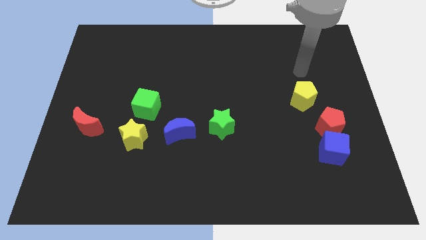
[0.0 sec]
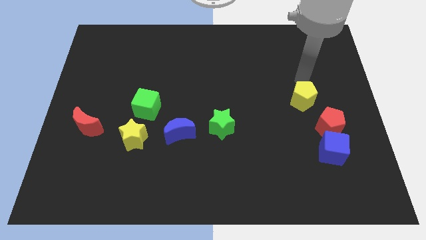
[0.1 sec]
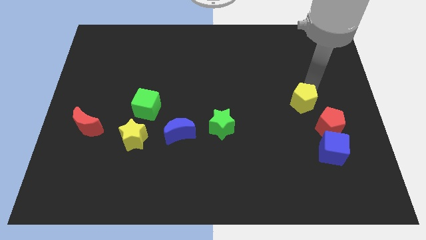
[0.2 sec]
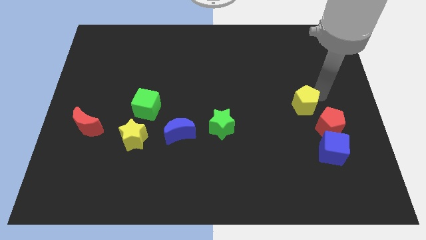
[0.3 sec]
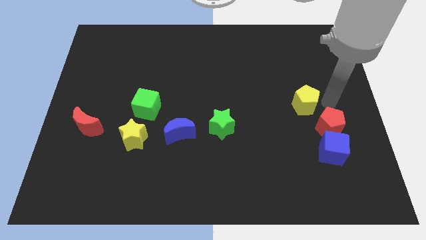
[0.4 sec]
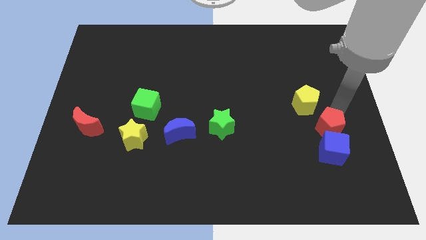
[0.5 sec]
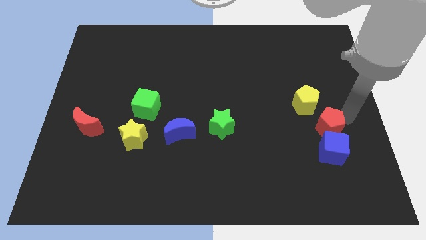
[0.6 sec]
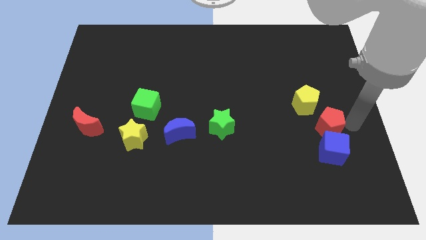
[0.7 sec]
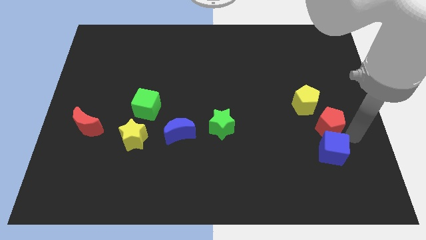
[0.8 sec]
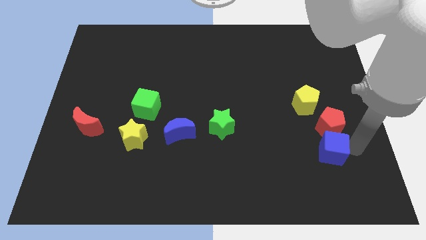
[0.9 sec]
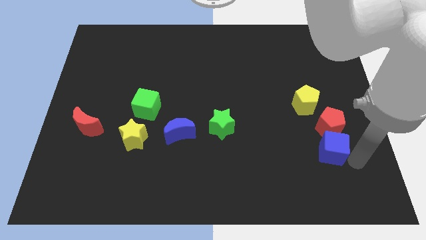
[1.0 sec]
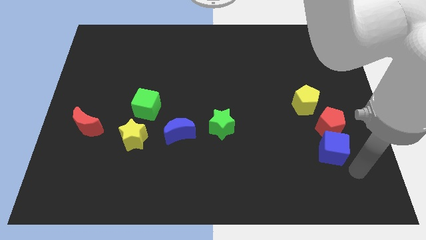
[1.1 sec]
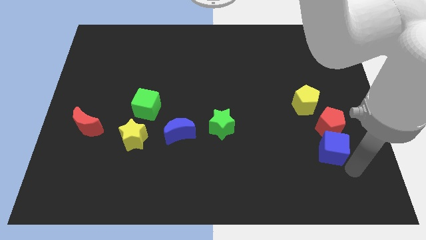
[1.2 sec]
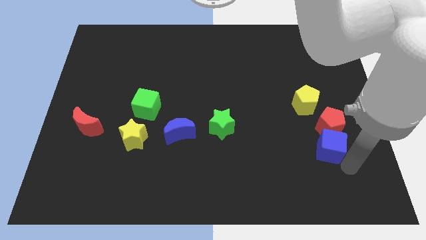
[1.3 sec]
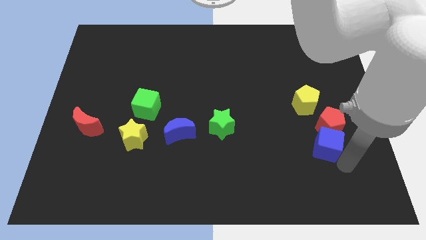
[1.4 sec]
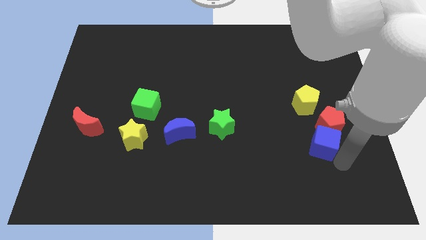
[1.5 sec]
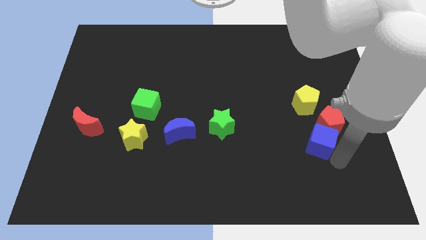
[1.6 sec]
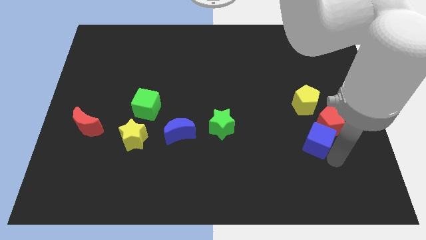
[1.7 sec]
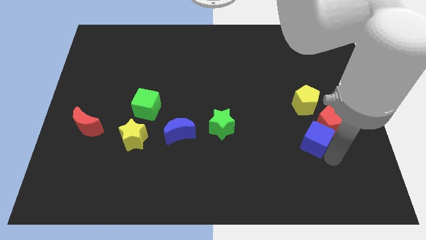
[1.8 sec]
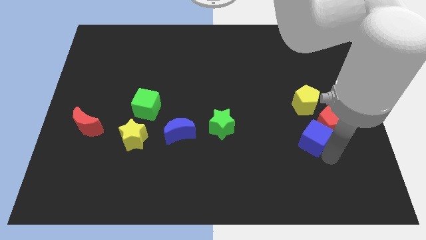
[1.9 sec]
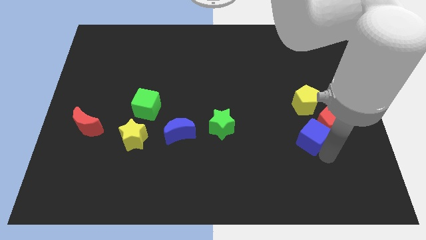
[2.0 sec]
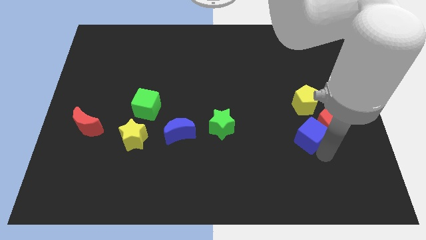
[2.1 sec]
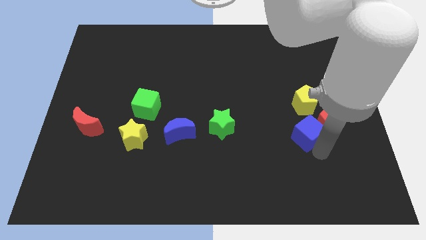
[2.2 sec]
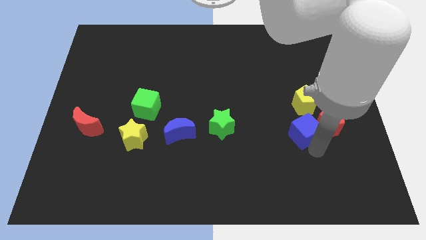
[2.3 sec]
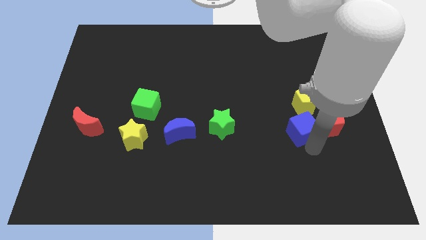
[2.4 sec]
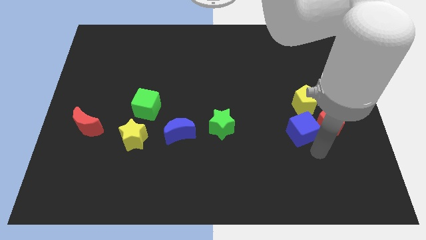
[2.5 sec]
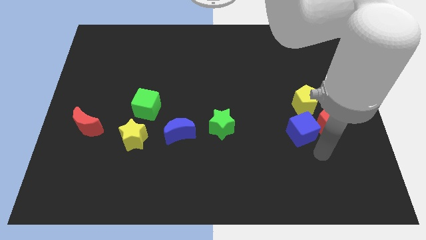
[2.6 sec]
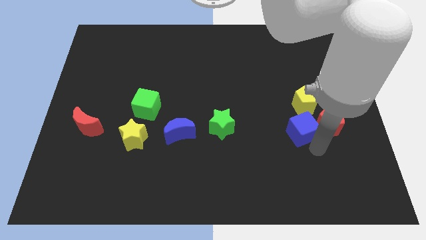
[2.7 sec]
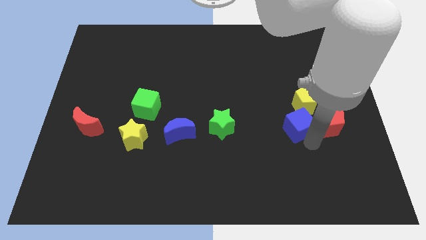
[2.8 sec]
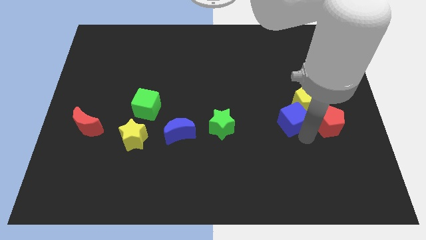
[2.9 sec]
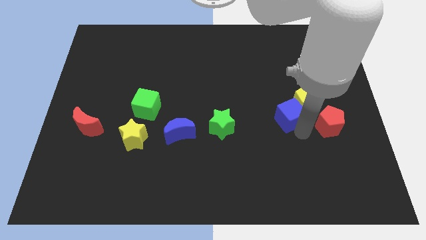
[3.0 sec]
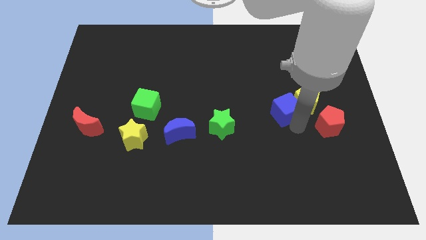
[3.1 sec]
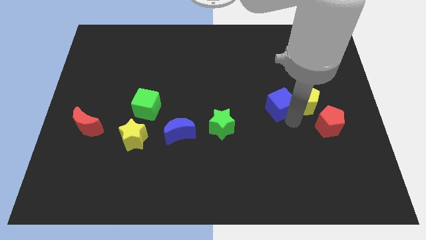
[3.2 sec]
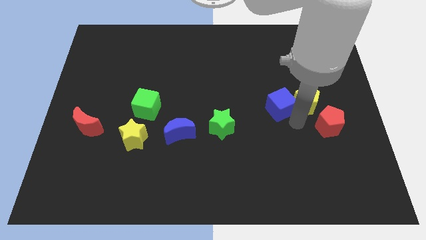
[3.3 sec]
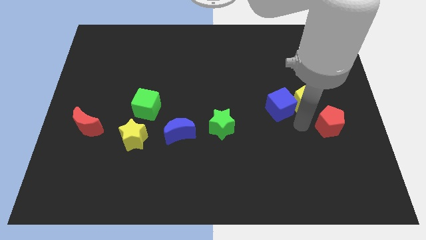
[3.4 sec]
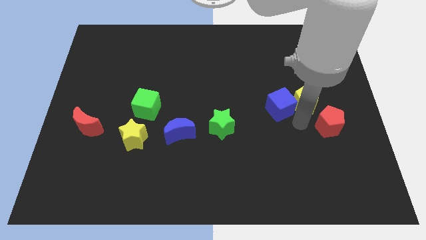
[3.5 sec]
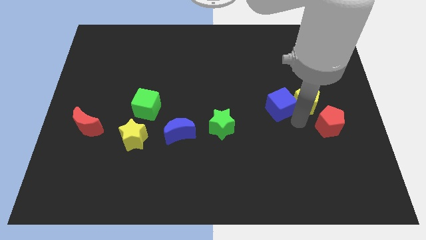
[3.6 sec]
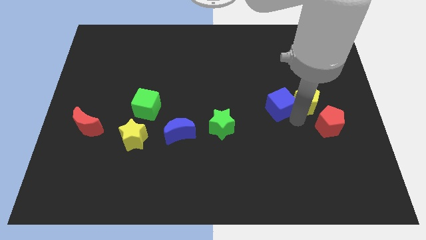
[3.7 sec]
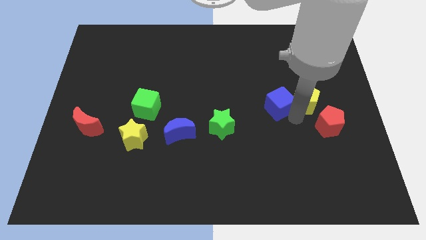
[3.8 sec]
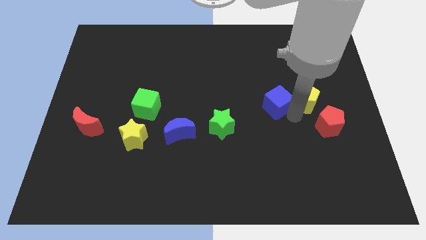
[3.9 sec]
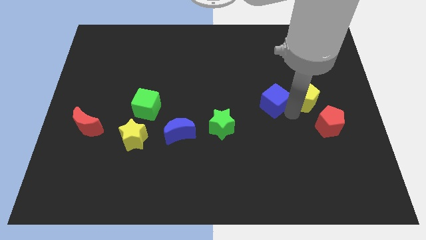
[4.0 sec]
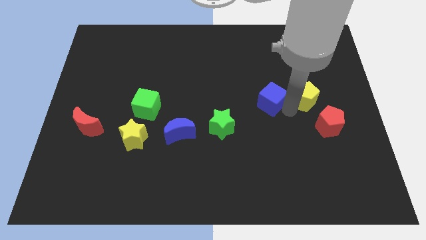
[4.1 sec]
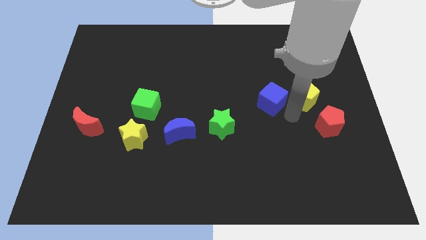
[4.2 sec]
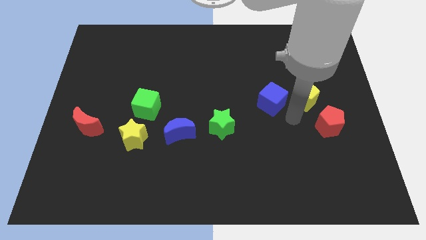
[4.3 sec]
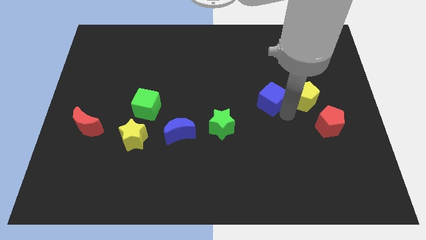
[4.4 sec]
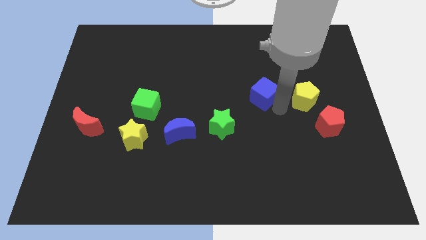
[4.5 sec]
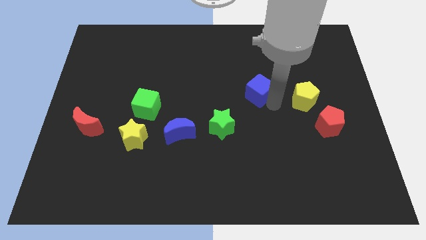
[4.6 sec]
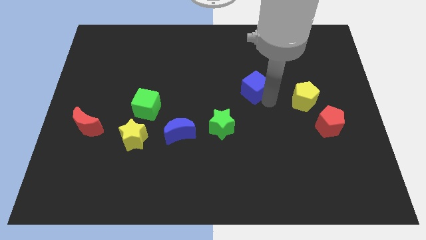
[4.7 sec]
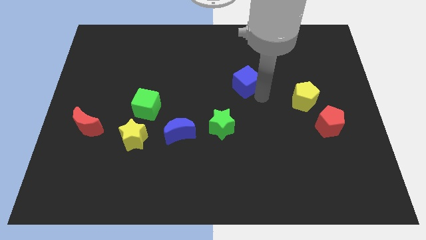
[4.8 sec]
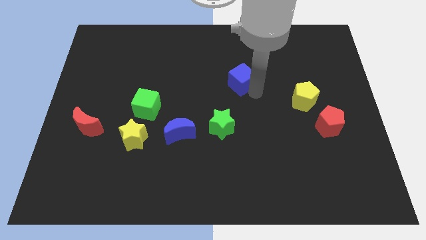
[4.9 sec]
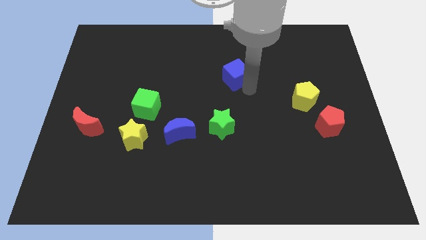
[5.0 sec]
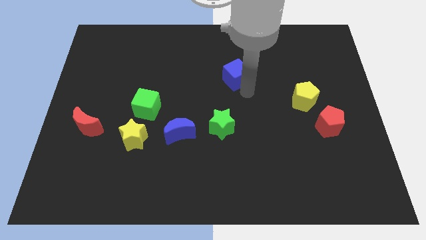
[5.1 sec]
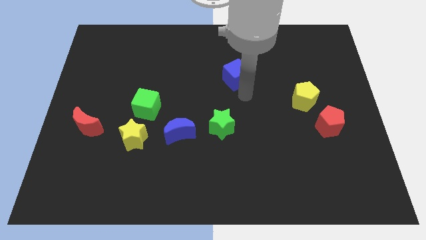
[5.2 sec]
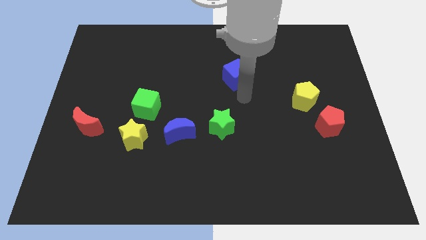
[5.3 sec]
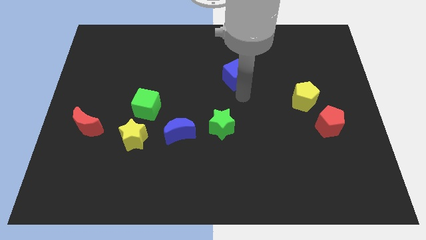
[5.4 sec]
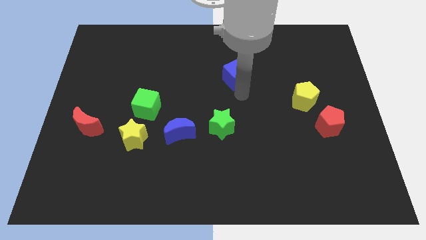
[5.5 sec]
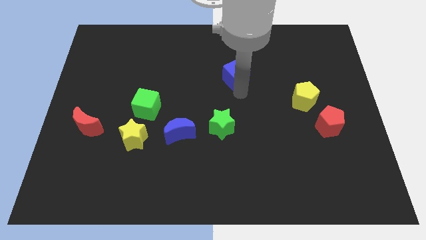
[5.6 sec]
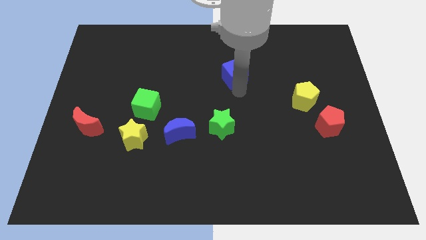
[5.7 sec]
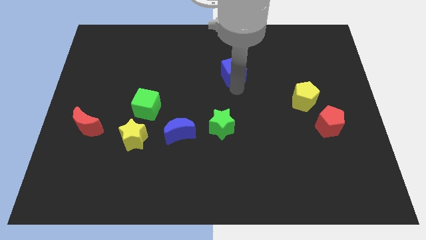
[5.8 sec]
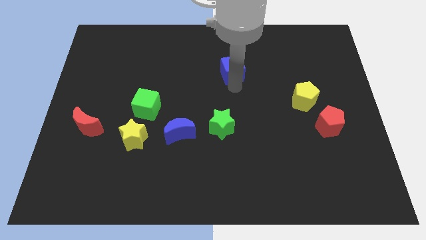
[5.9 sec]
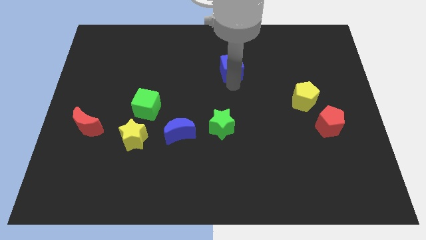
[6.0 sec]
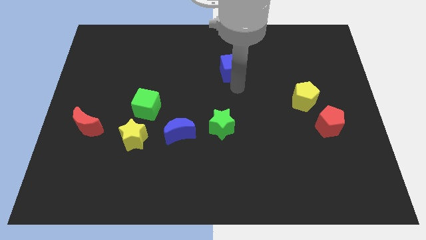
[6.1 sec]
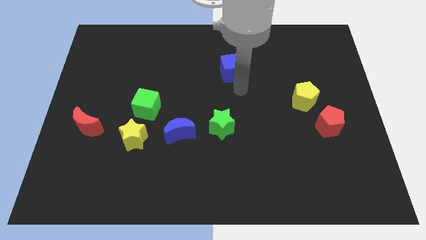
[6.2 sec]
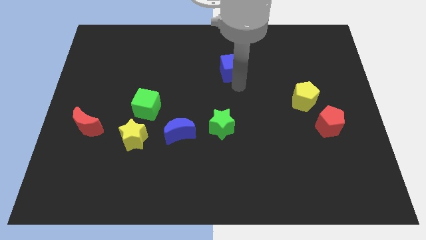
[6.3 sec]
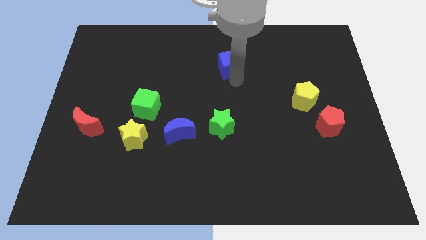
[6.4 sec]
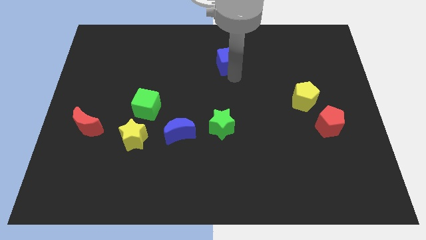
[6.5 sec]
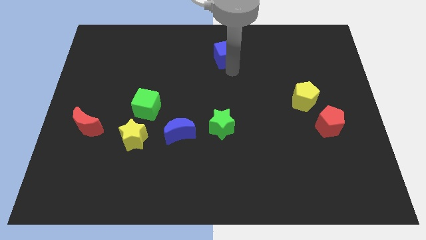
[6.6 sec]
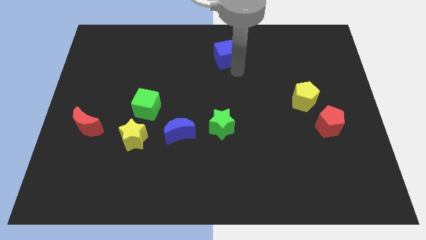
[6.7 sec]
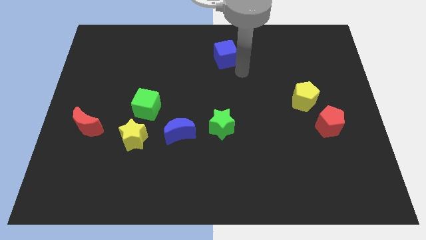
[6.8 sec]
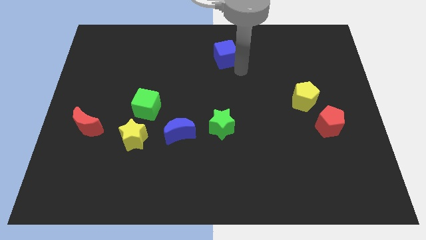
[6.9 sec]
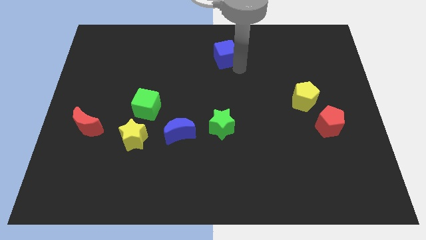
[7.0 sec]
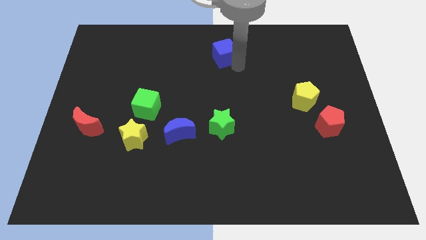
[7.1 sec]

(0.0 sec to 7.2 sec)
slide the blue cube to the towards your base
